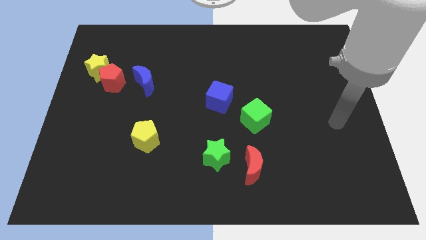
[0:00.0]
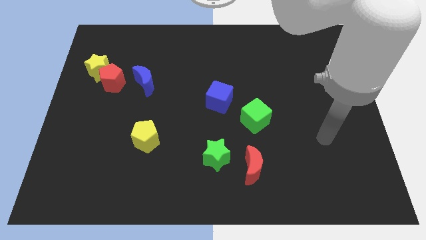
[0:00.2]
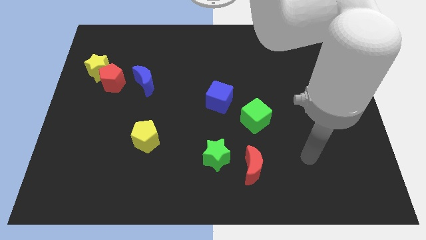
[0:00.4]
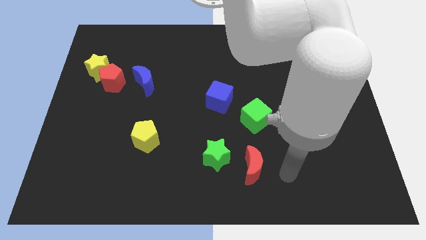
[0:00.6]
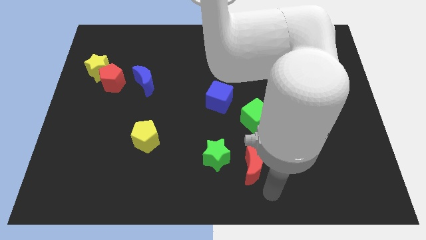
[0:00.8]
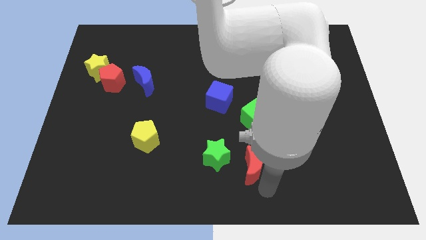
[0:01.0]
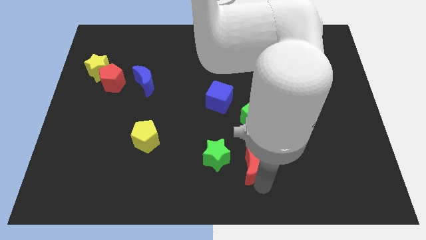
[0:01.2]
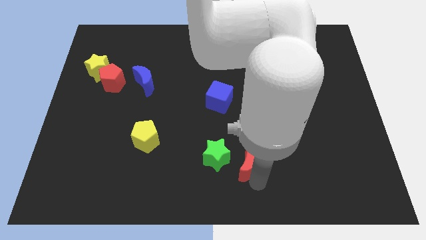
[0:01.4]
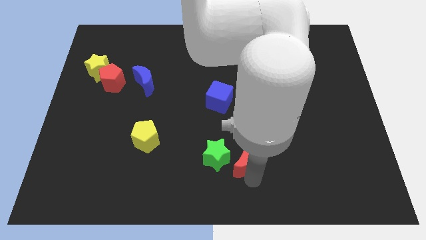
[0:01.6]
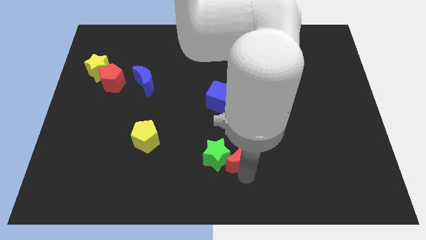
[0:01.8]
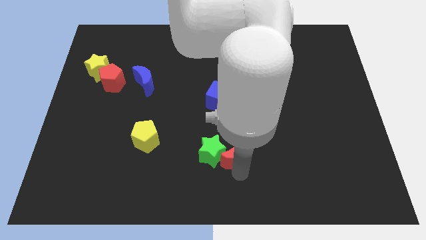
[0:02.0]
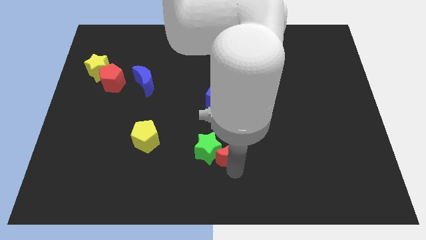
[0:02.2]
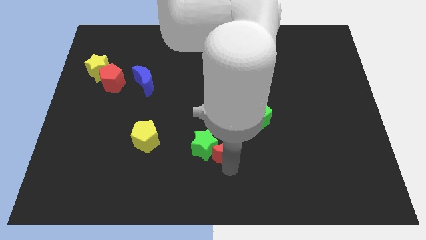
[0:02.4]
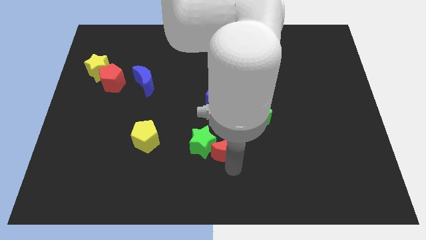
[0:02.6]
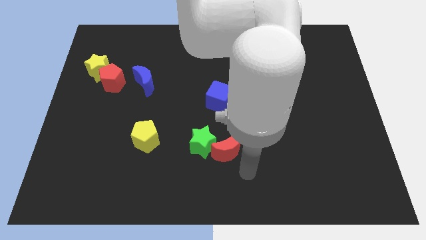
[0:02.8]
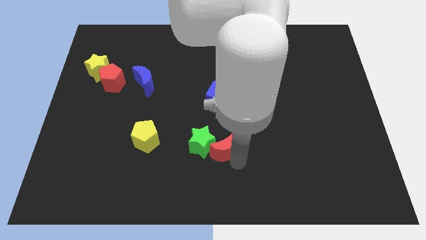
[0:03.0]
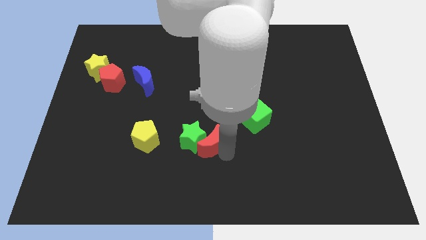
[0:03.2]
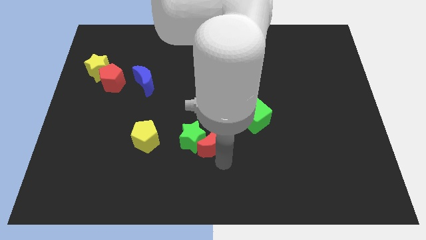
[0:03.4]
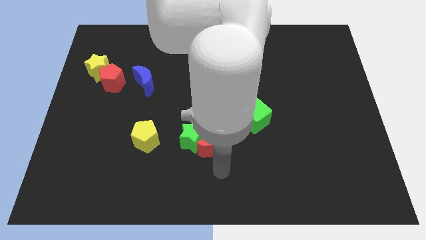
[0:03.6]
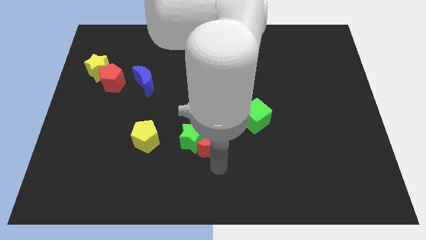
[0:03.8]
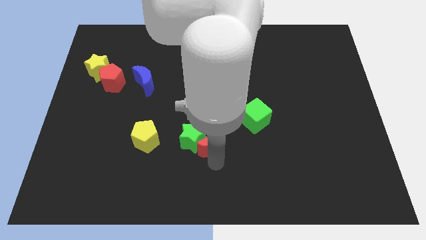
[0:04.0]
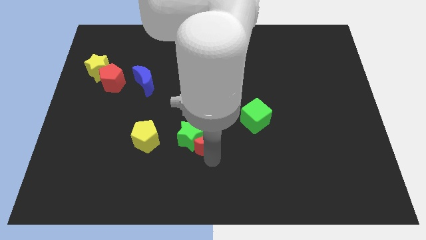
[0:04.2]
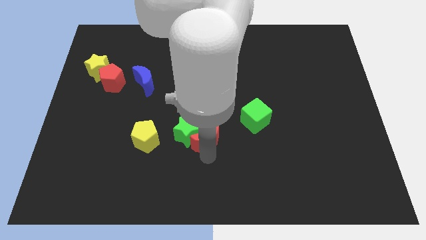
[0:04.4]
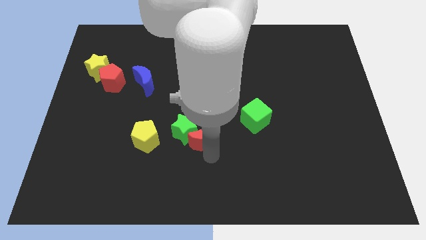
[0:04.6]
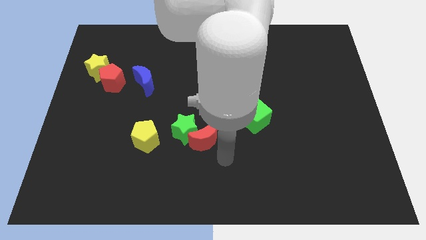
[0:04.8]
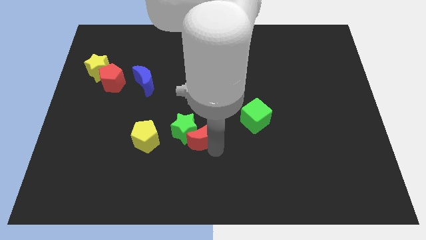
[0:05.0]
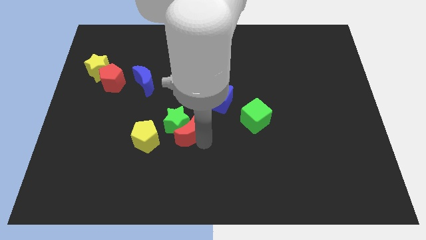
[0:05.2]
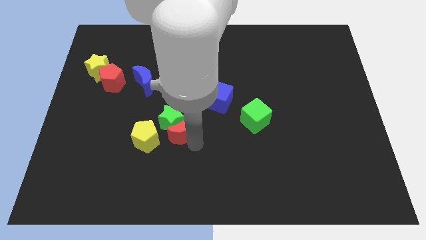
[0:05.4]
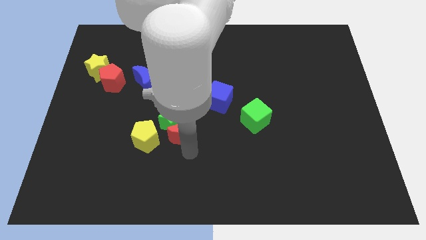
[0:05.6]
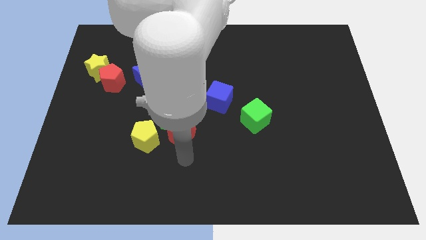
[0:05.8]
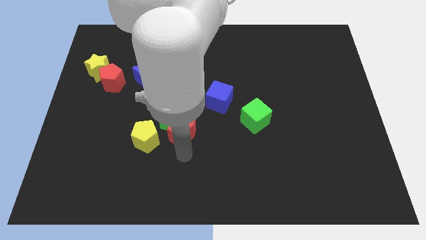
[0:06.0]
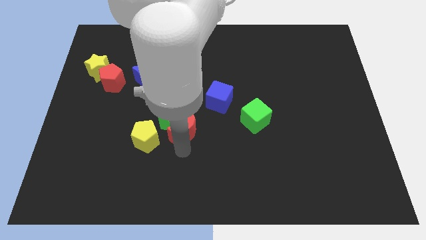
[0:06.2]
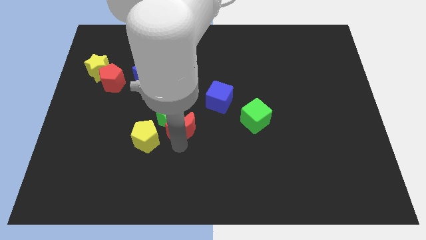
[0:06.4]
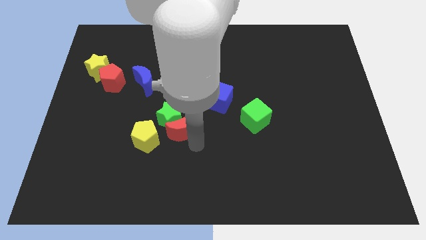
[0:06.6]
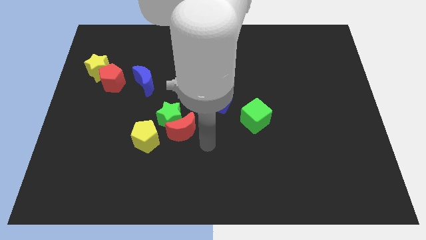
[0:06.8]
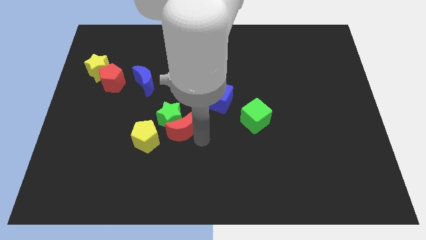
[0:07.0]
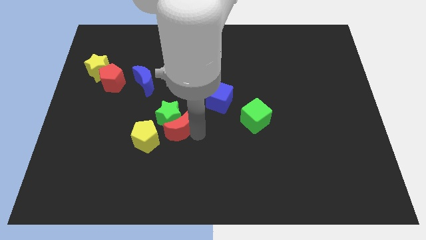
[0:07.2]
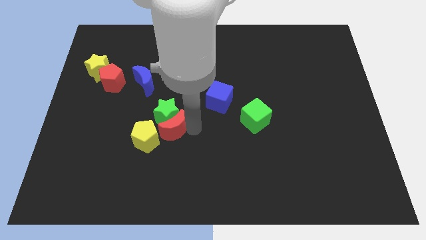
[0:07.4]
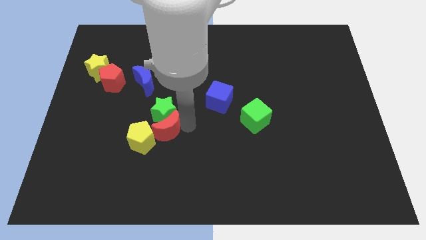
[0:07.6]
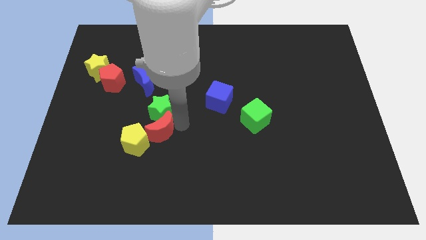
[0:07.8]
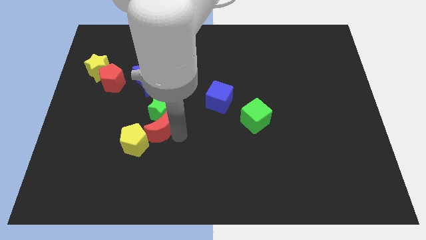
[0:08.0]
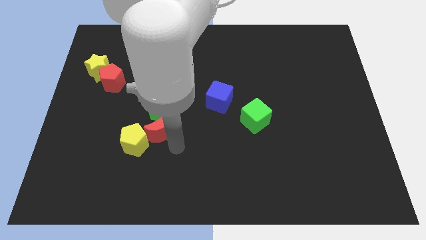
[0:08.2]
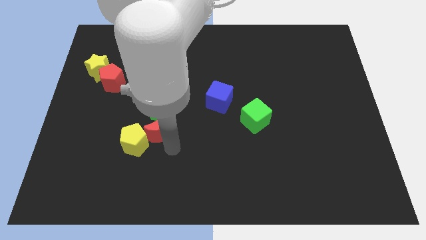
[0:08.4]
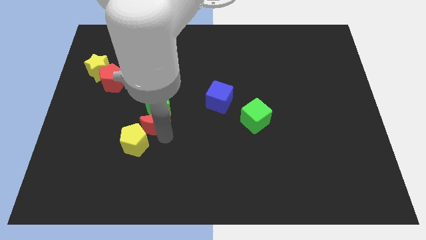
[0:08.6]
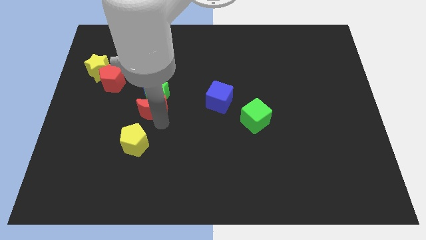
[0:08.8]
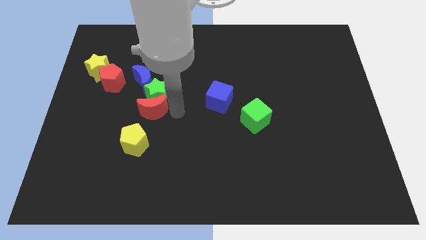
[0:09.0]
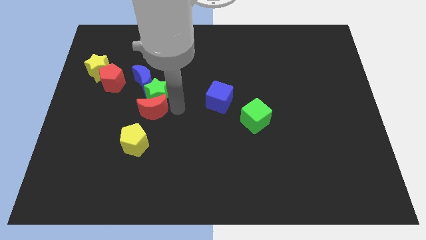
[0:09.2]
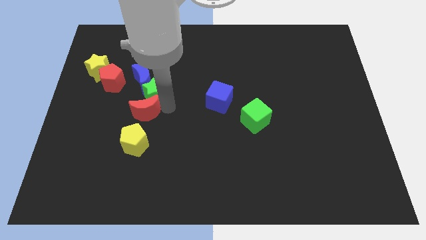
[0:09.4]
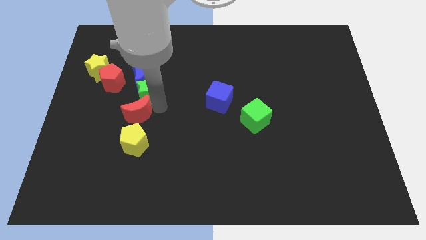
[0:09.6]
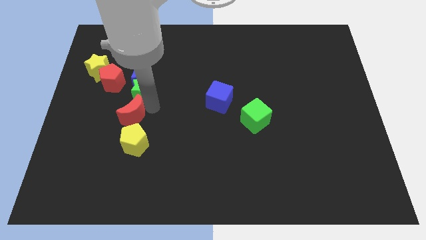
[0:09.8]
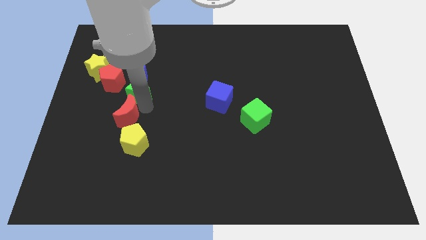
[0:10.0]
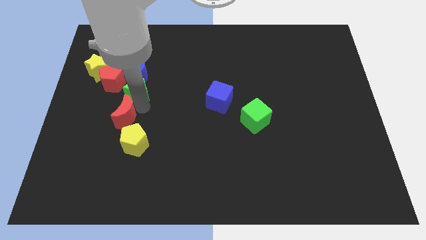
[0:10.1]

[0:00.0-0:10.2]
move the red moon to the bottom side of the red pentagon

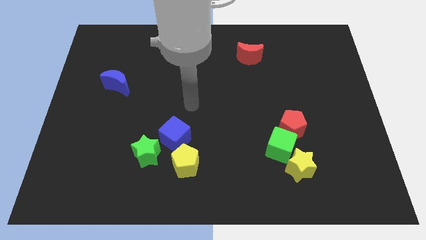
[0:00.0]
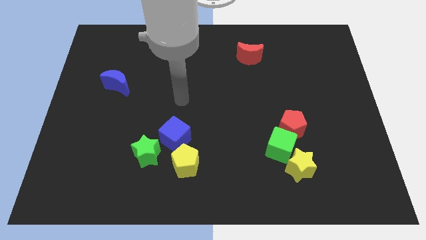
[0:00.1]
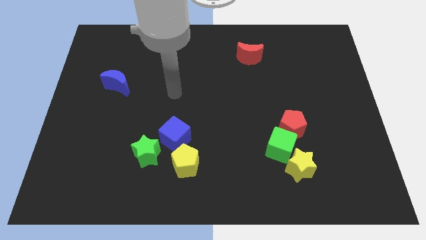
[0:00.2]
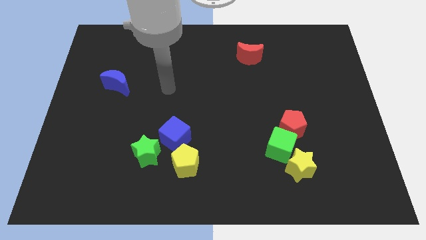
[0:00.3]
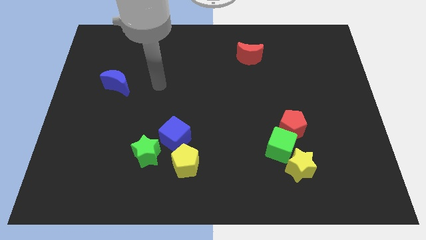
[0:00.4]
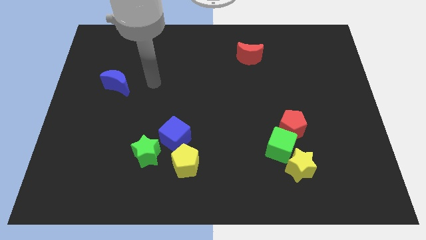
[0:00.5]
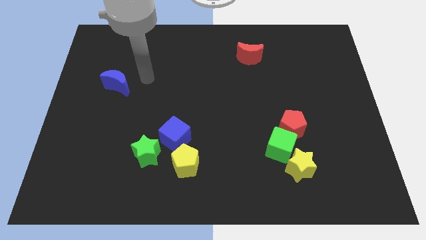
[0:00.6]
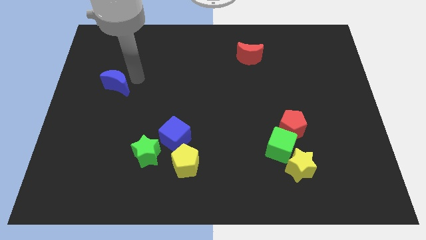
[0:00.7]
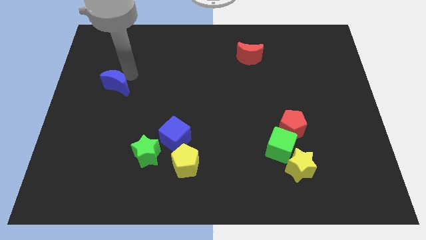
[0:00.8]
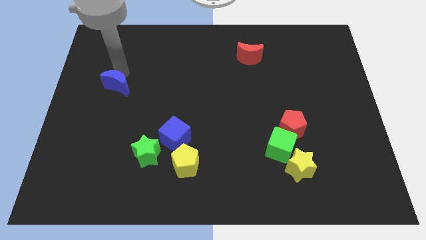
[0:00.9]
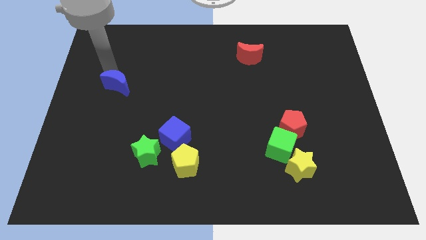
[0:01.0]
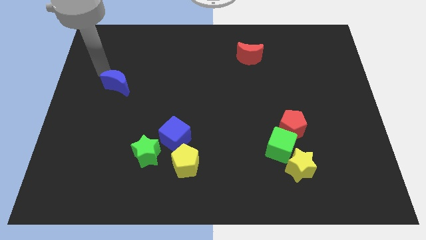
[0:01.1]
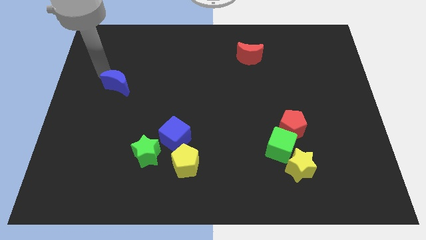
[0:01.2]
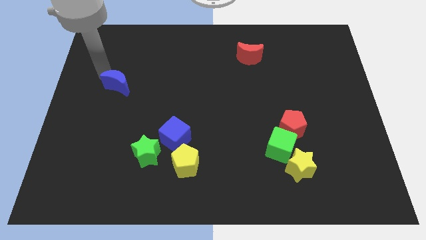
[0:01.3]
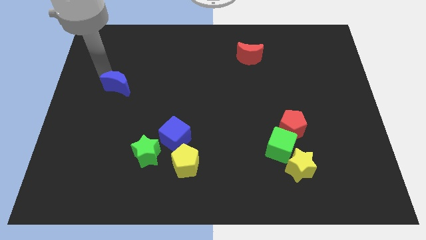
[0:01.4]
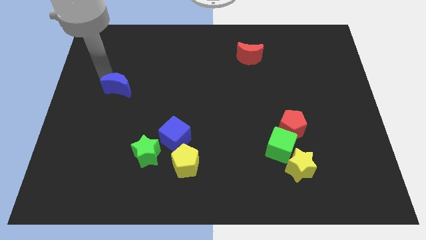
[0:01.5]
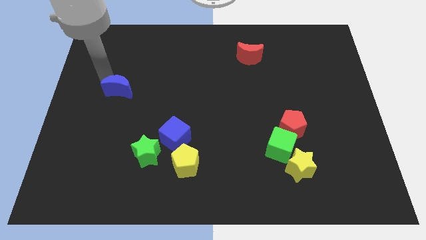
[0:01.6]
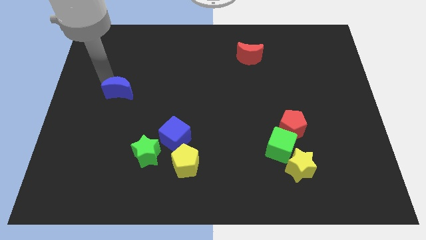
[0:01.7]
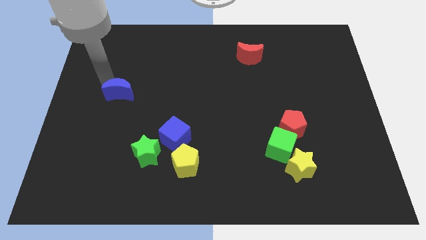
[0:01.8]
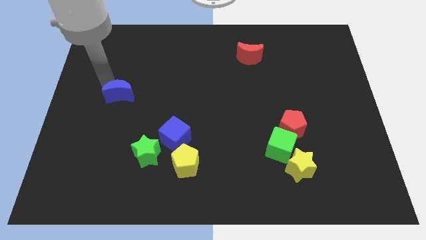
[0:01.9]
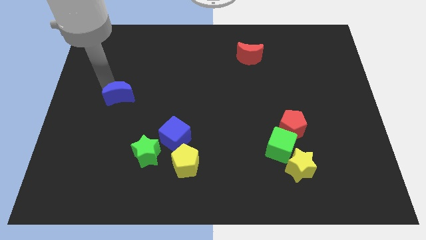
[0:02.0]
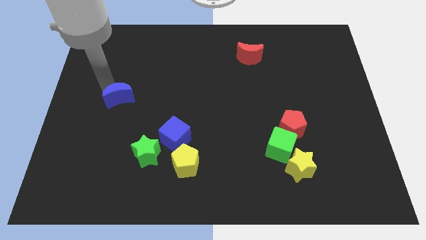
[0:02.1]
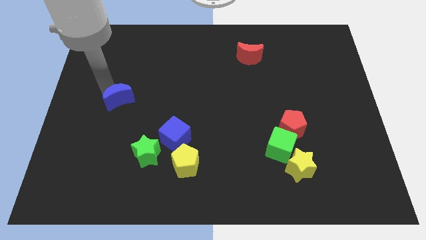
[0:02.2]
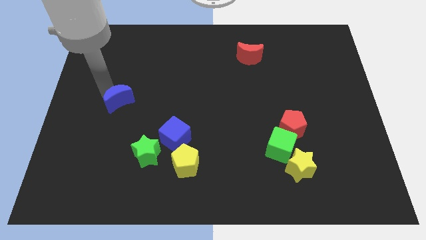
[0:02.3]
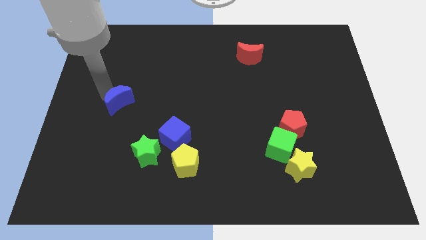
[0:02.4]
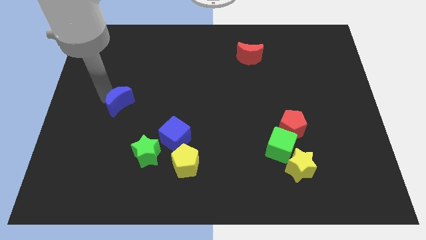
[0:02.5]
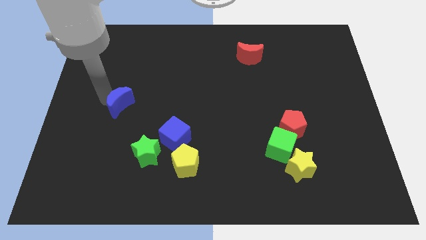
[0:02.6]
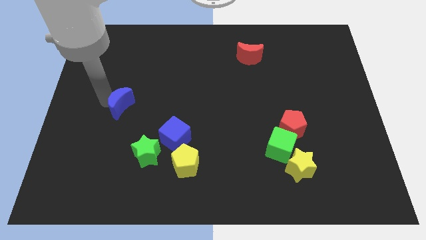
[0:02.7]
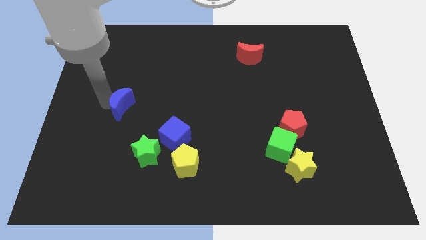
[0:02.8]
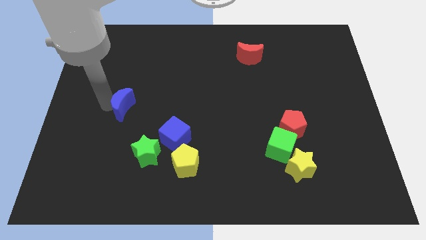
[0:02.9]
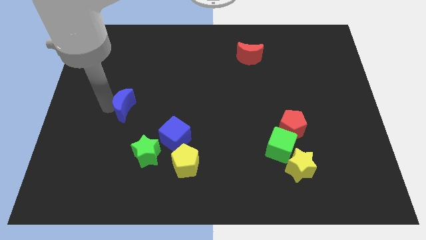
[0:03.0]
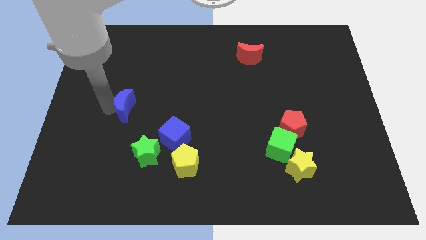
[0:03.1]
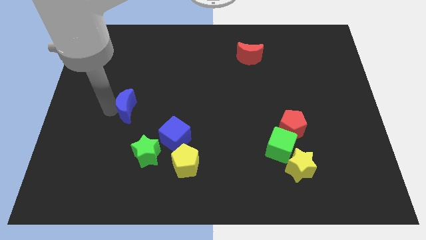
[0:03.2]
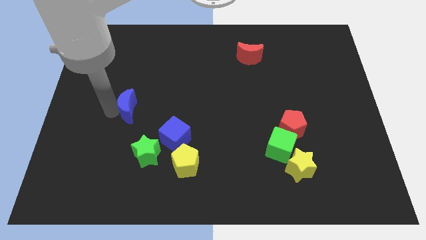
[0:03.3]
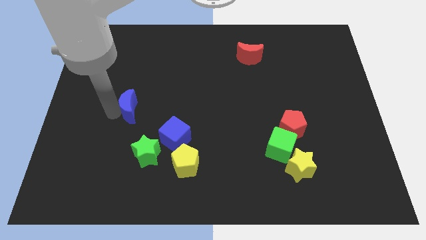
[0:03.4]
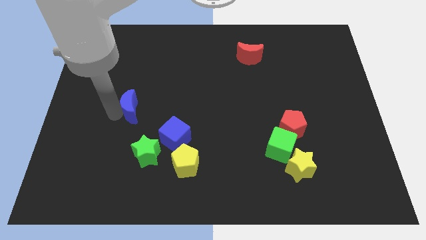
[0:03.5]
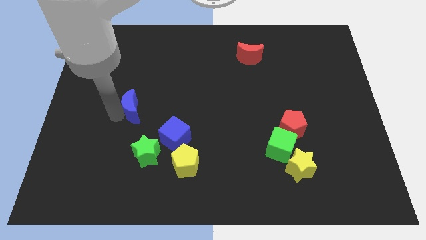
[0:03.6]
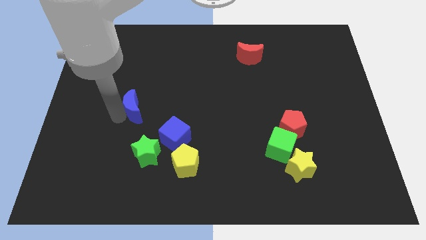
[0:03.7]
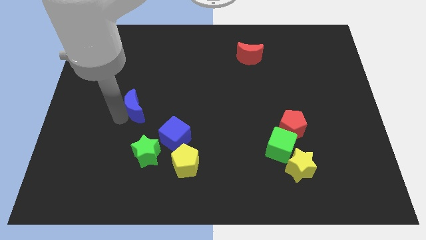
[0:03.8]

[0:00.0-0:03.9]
move the blue moon diagonally up and to the left of the blue cube
